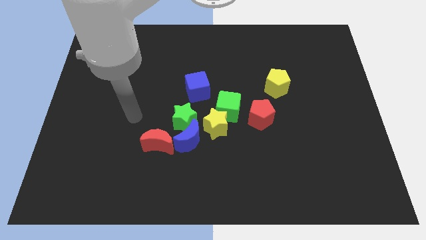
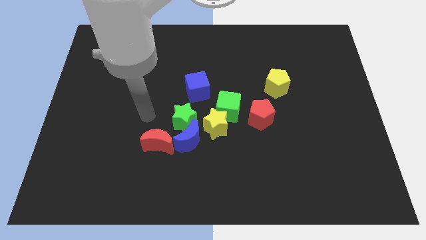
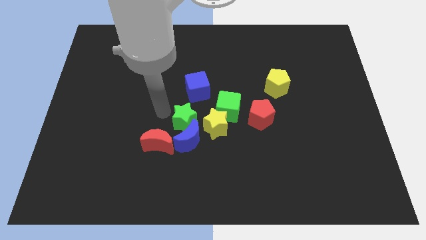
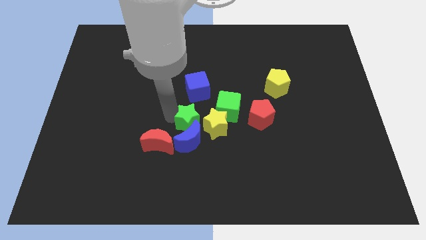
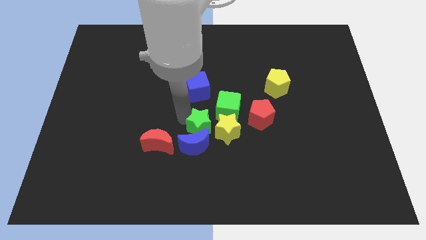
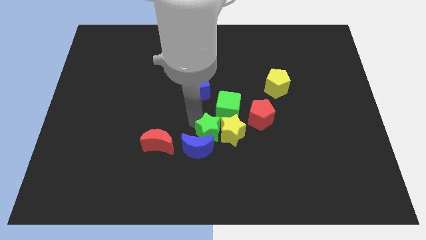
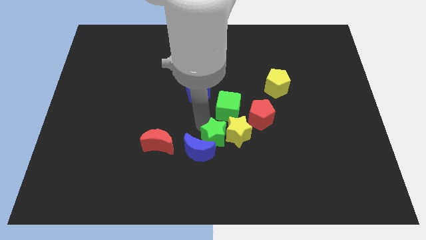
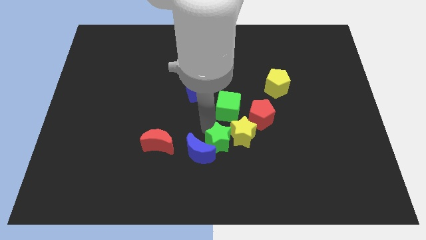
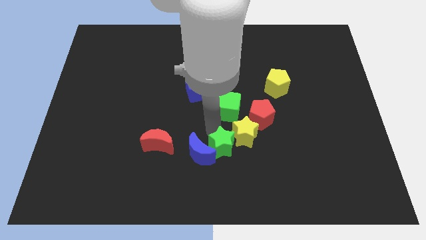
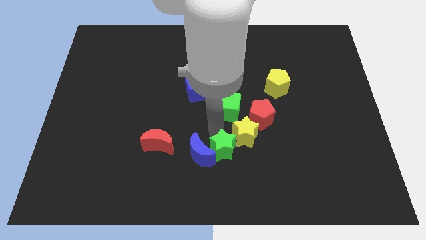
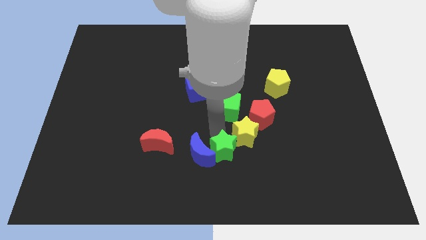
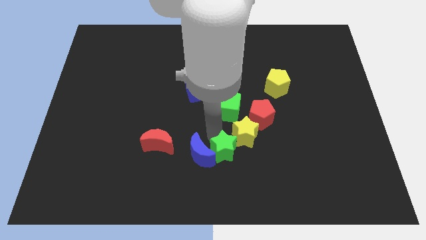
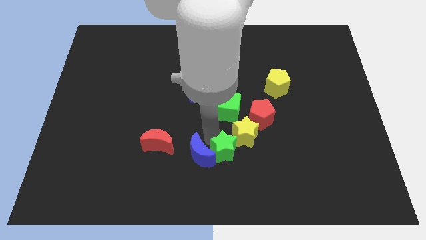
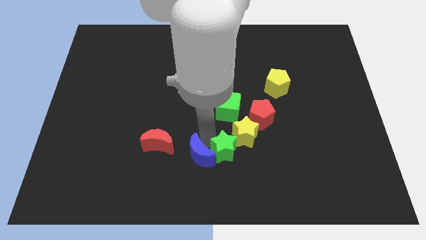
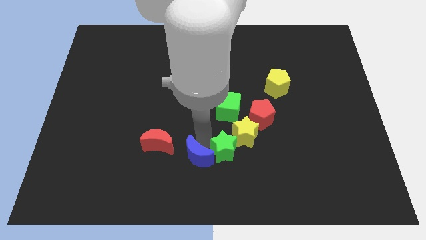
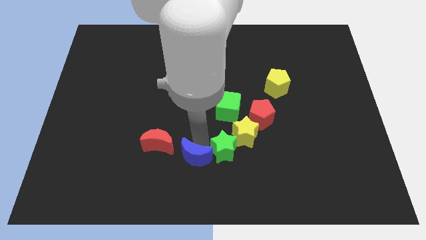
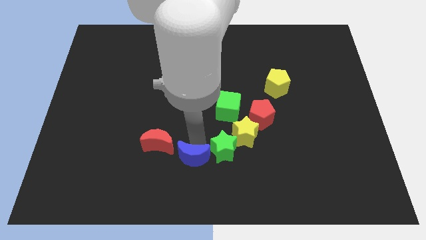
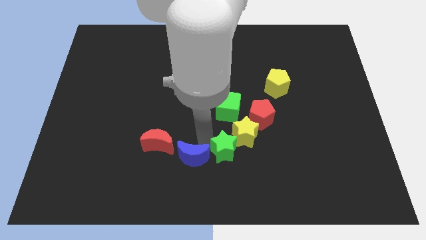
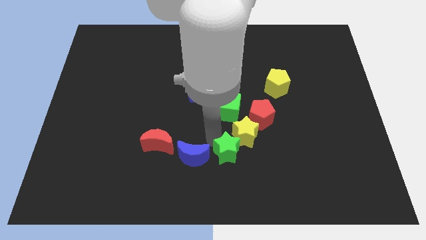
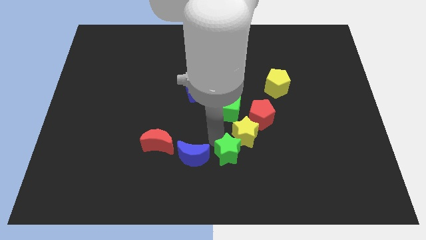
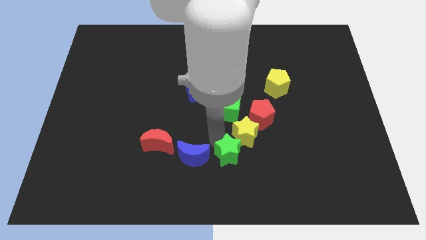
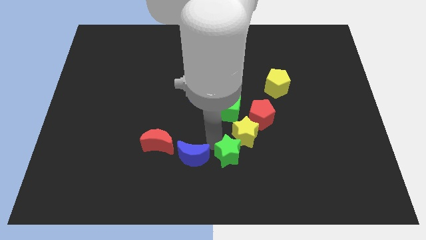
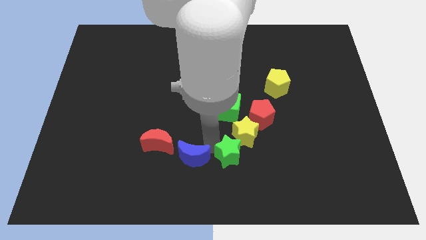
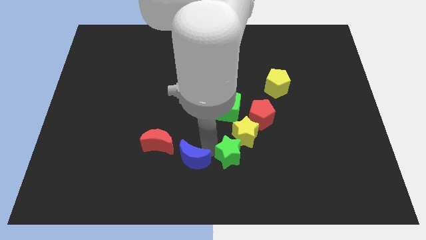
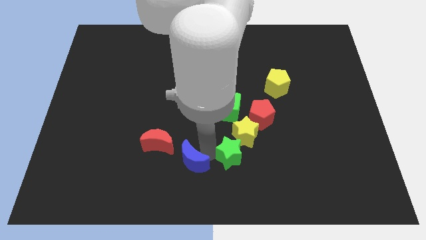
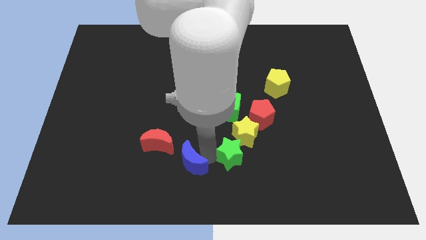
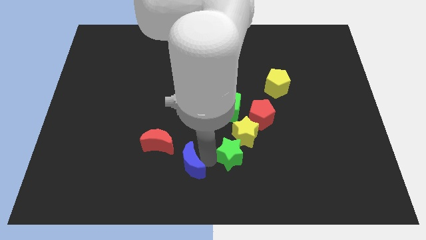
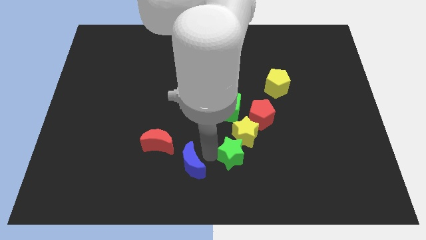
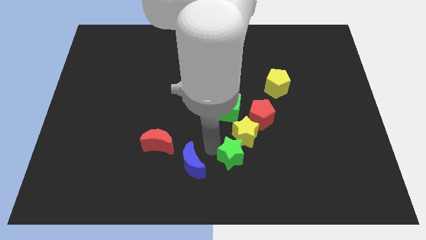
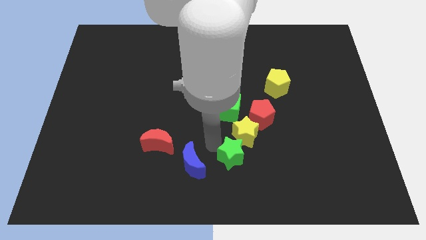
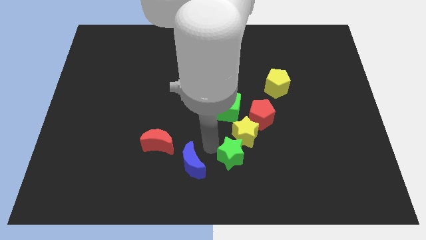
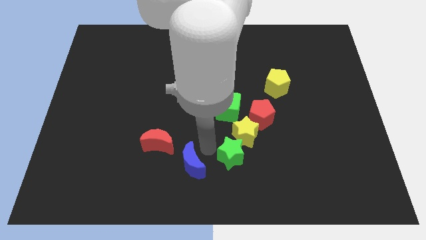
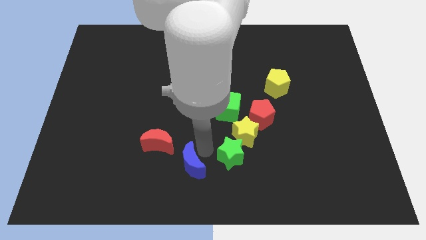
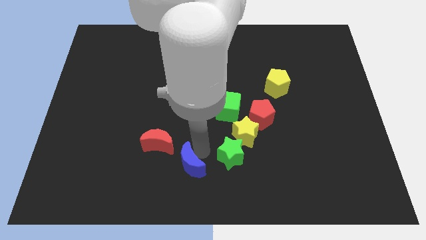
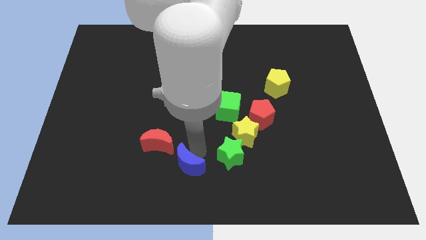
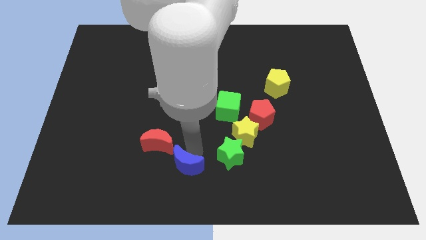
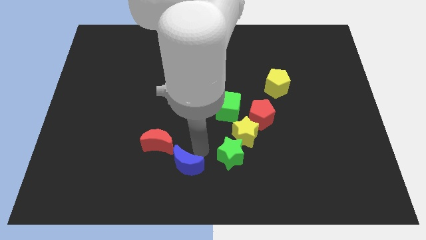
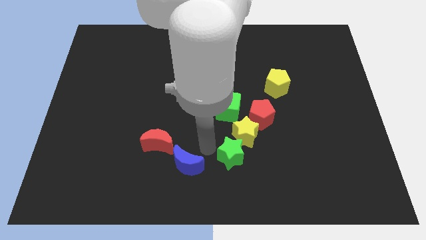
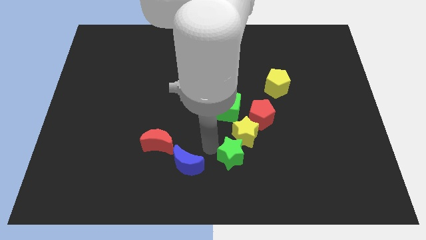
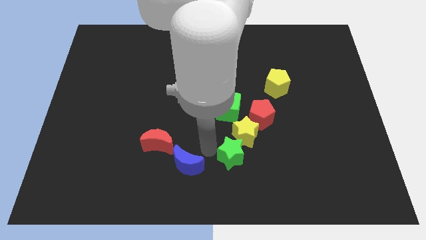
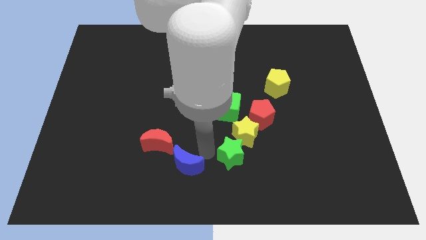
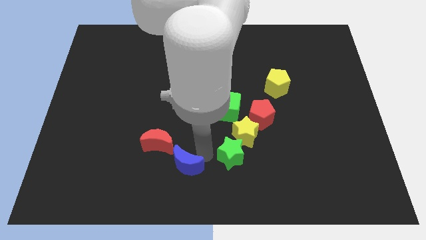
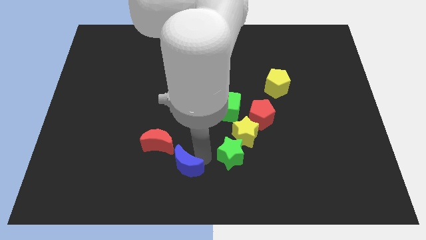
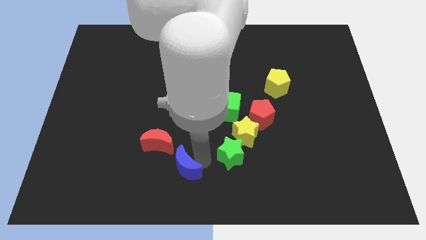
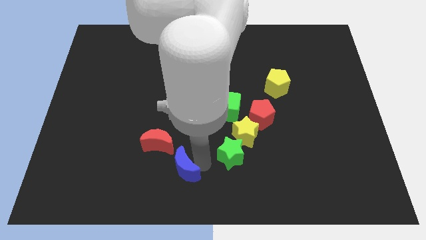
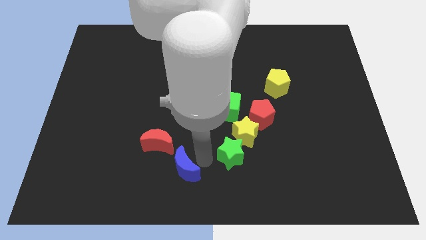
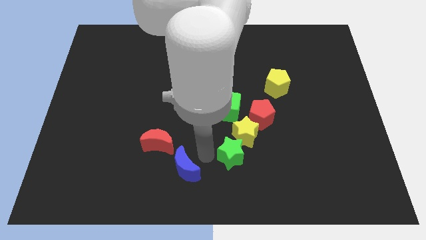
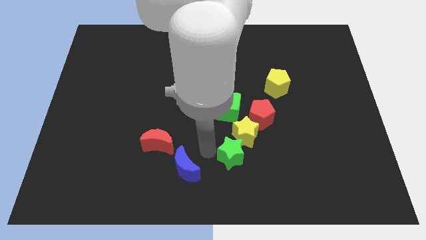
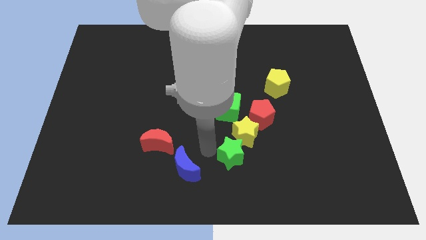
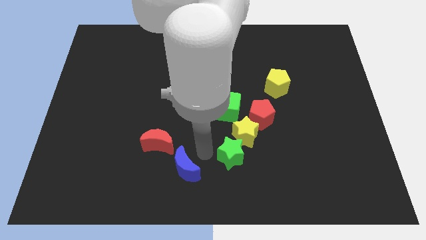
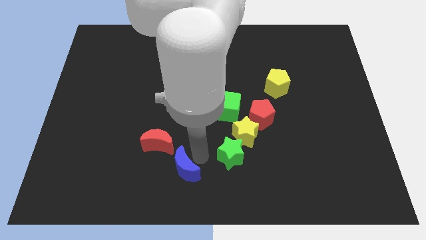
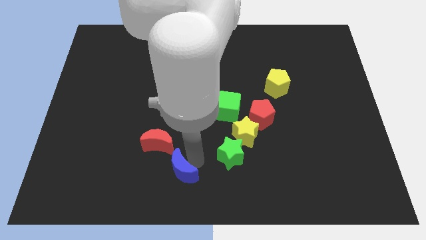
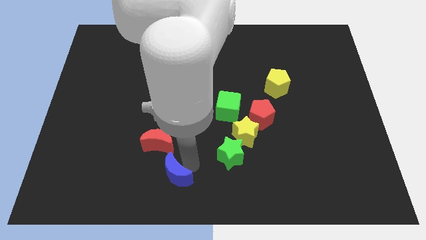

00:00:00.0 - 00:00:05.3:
pull the blue moon apart from the group

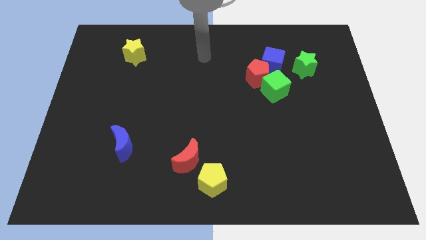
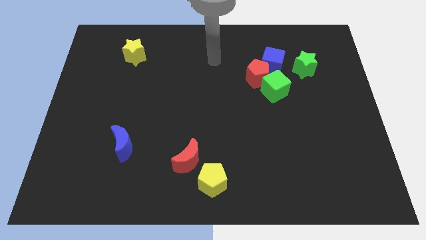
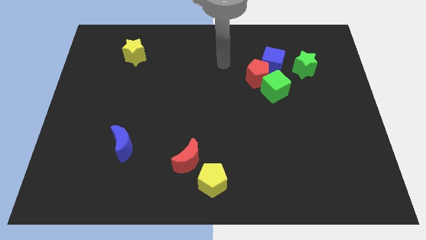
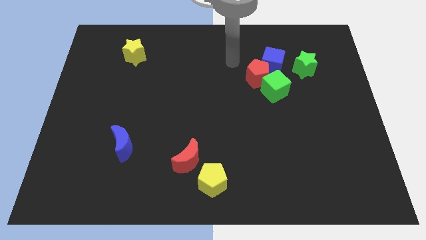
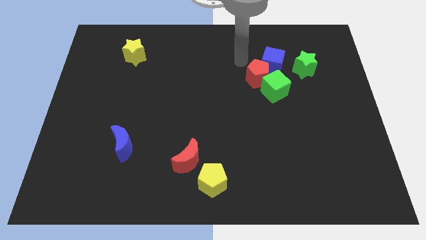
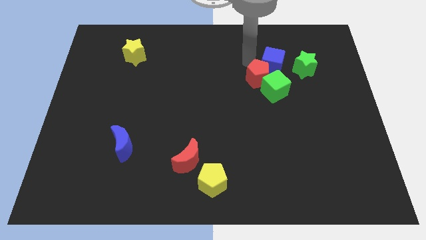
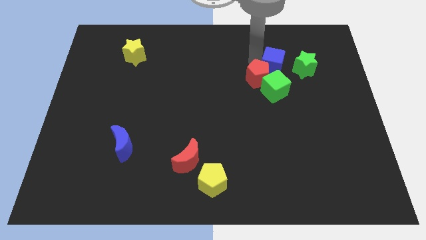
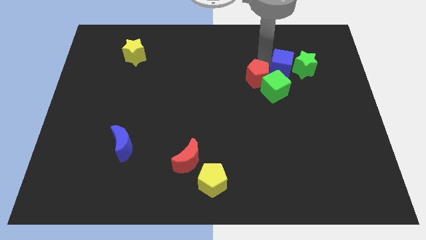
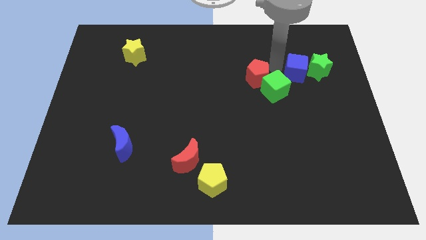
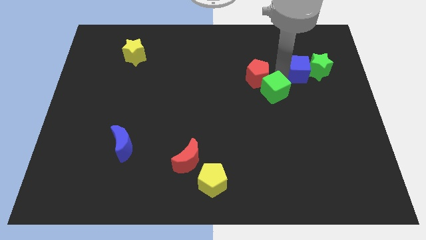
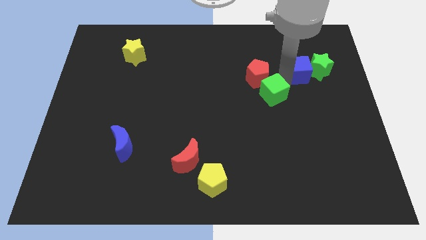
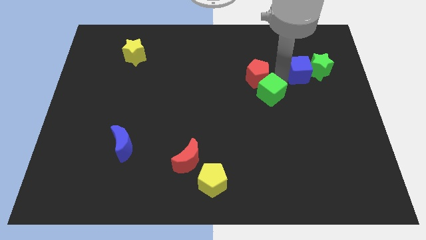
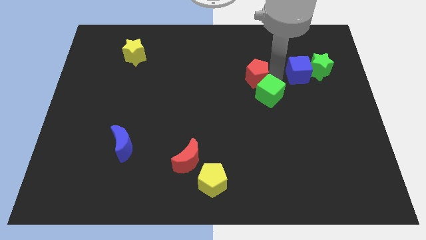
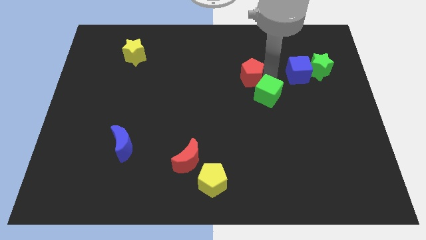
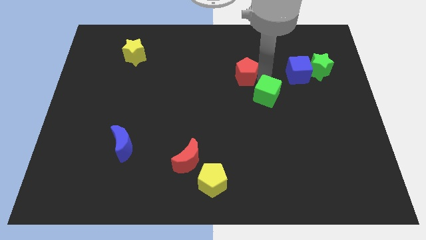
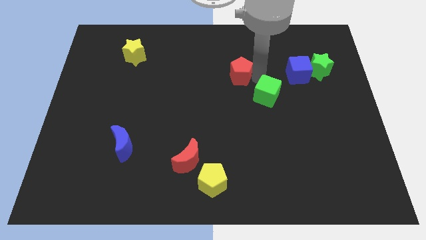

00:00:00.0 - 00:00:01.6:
separate the red pentagon from the green cube and blue cube

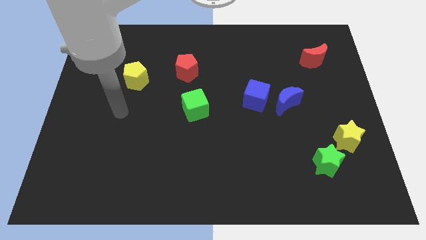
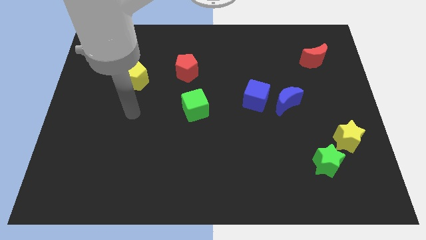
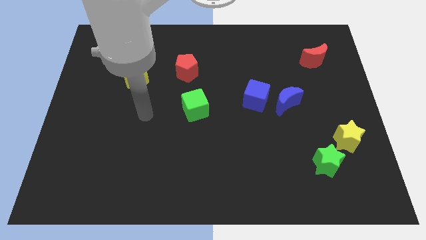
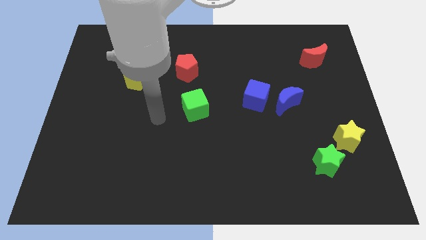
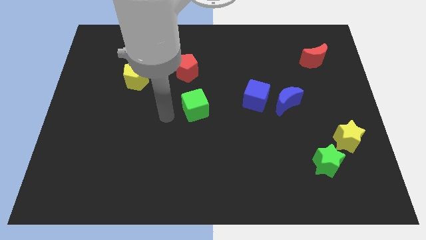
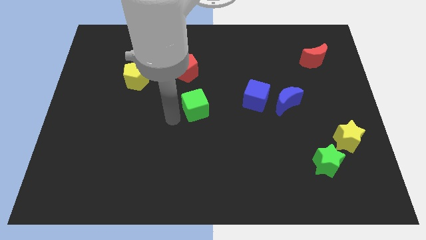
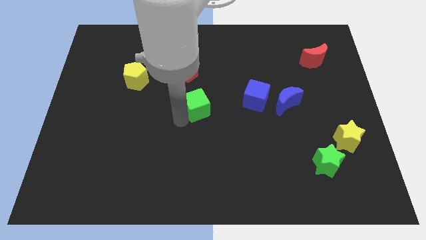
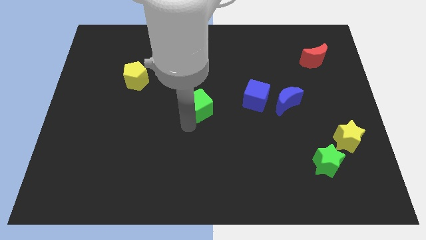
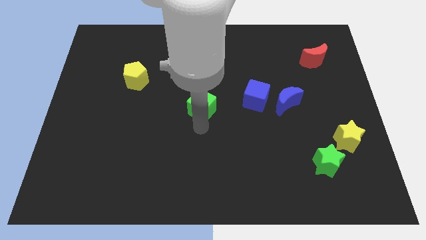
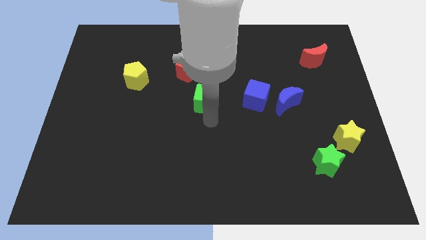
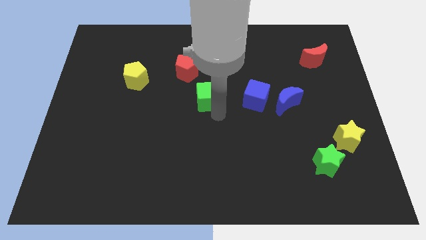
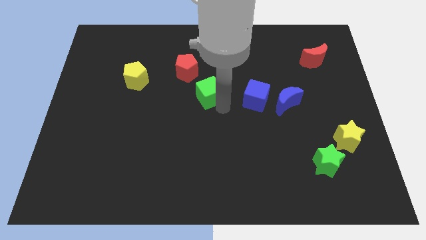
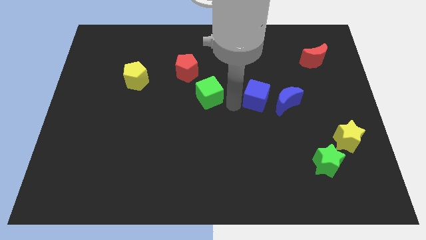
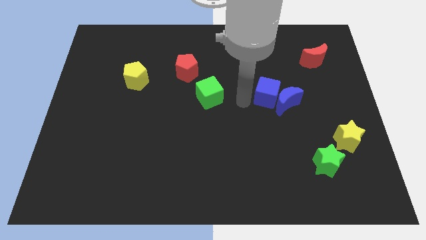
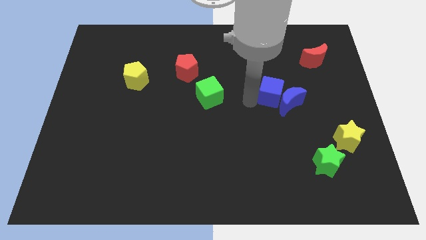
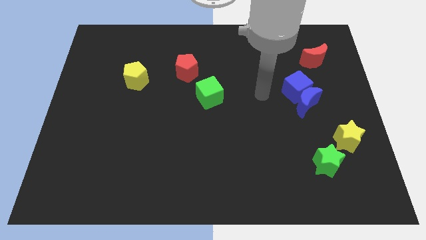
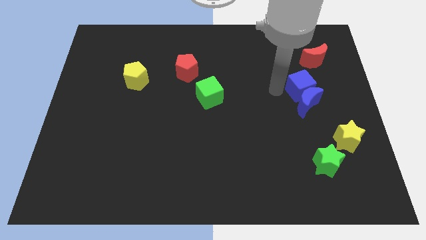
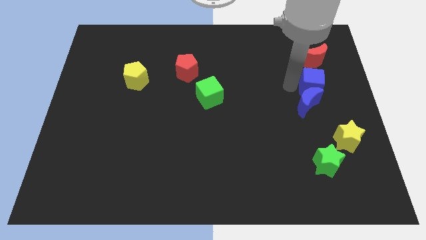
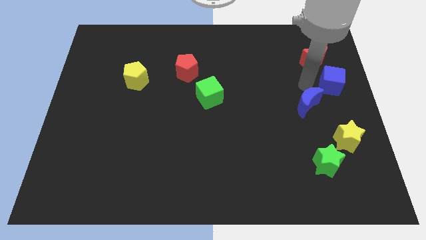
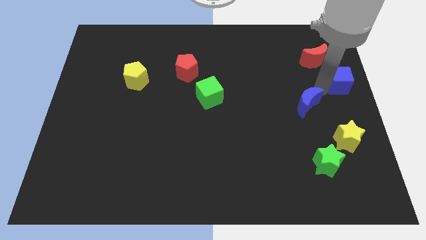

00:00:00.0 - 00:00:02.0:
pull the blue moon apart from the blue cube

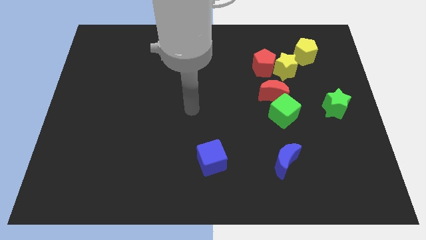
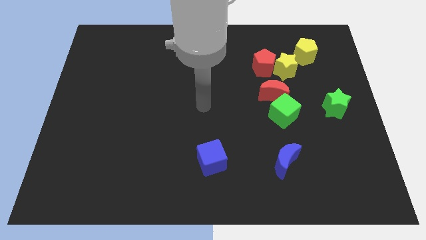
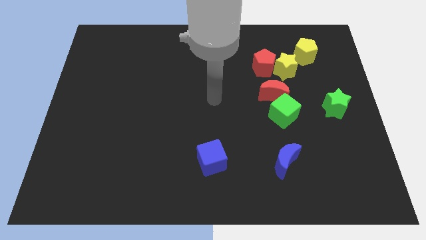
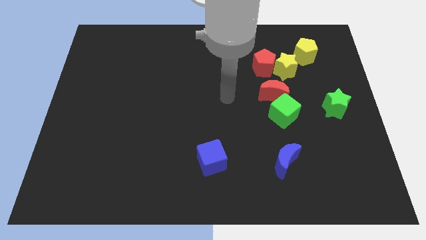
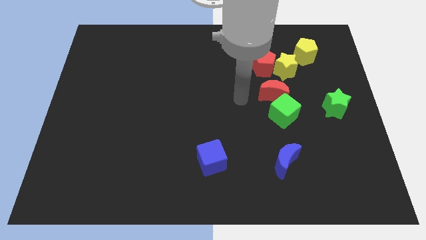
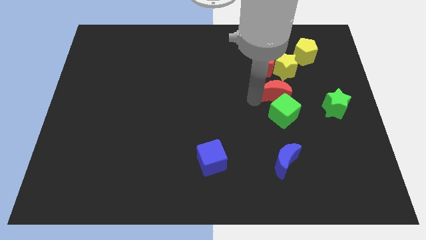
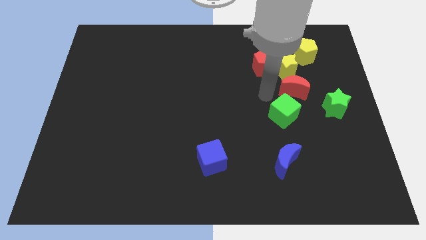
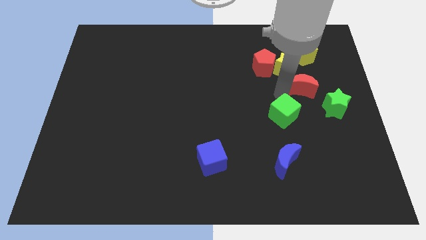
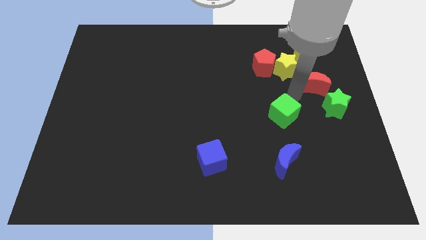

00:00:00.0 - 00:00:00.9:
separate the green cube from the red moon
